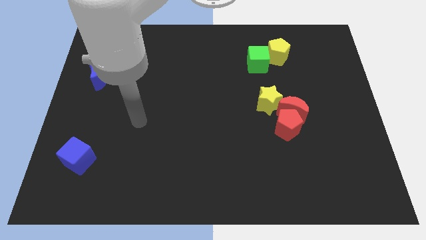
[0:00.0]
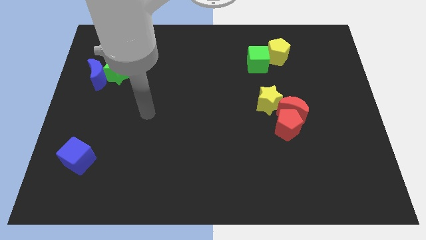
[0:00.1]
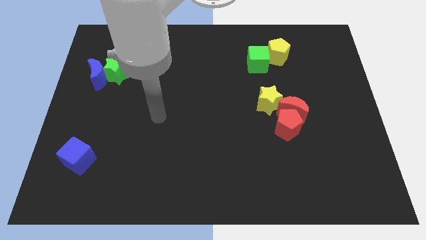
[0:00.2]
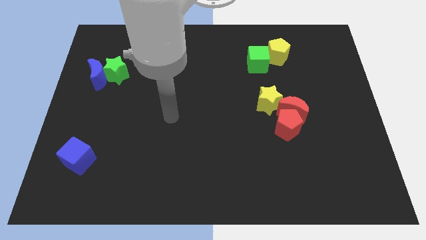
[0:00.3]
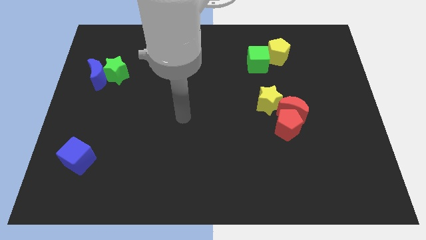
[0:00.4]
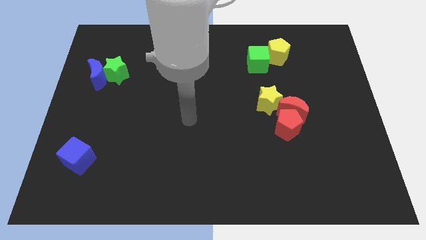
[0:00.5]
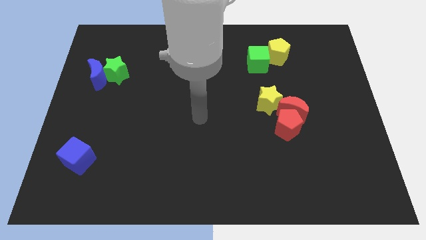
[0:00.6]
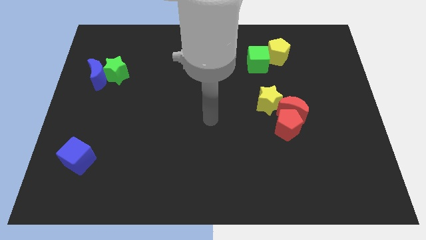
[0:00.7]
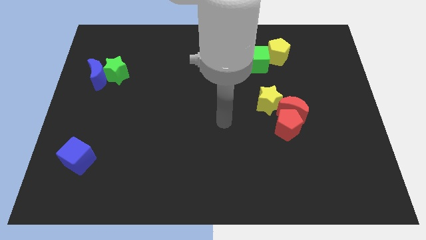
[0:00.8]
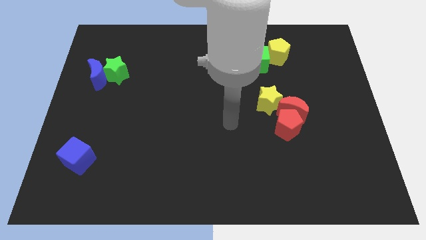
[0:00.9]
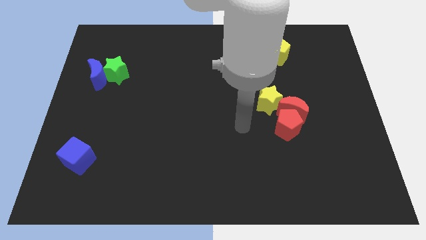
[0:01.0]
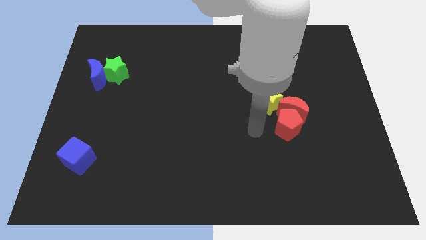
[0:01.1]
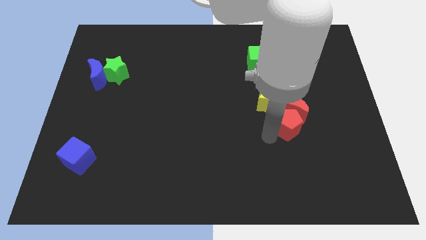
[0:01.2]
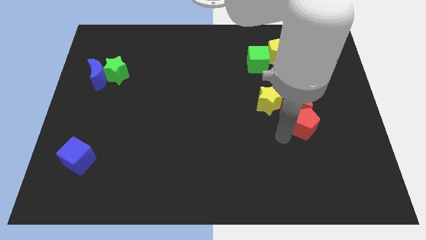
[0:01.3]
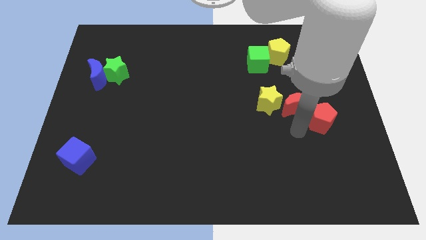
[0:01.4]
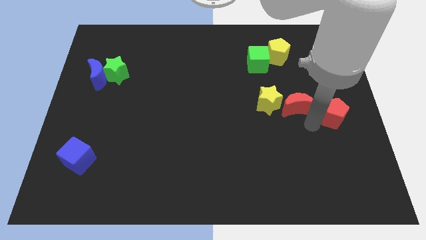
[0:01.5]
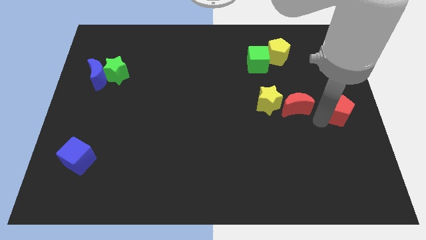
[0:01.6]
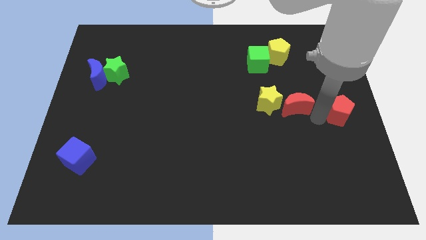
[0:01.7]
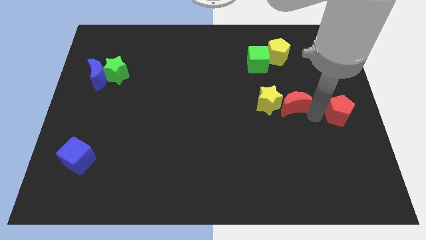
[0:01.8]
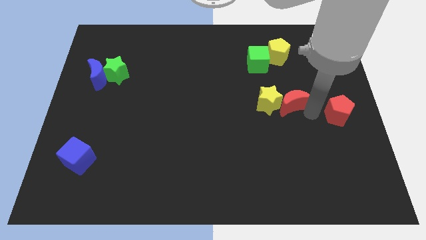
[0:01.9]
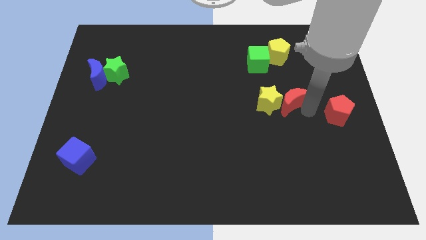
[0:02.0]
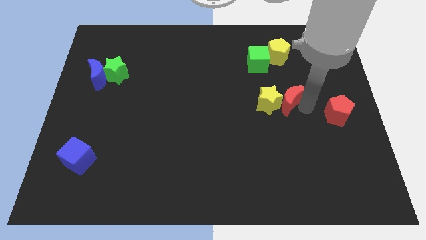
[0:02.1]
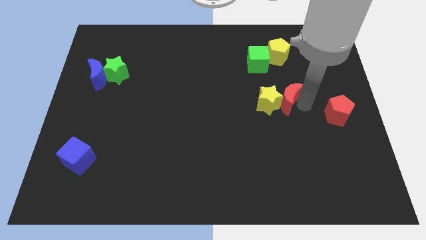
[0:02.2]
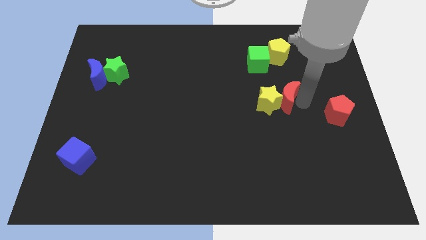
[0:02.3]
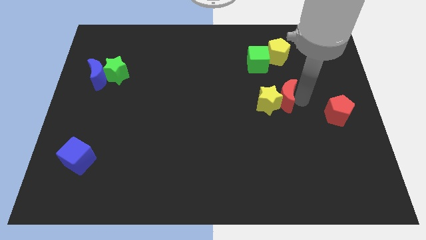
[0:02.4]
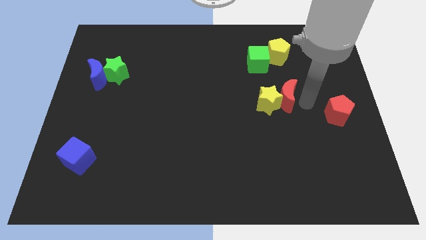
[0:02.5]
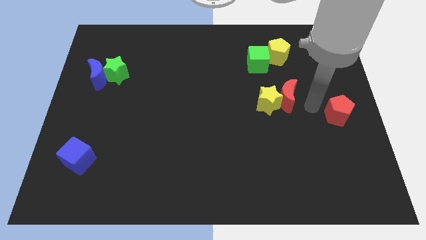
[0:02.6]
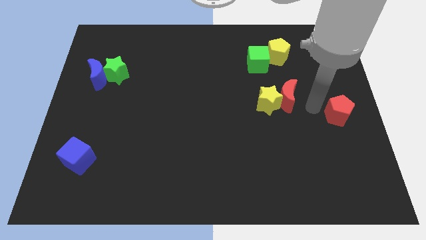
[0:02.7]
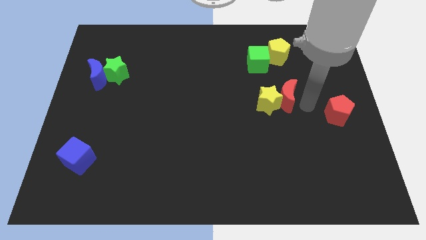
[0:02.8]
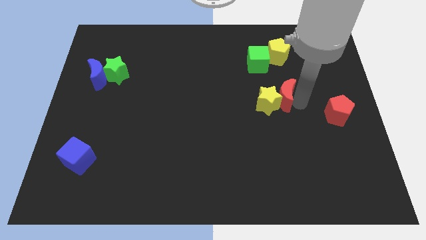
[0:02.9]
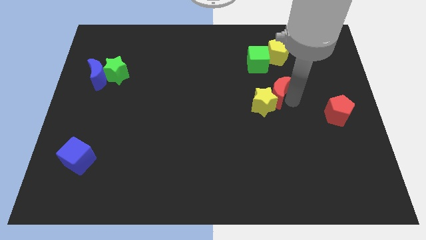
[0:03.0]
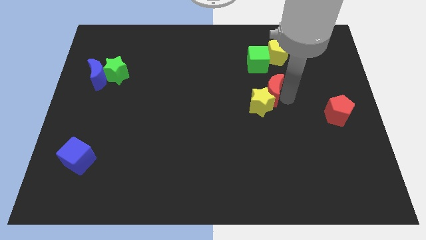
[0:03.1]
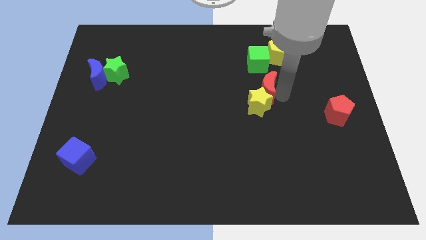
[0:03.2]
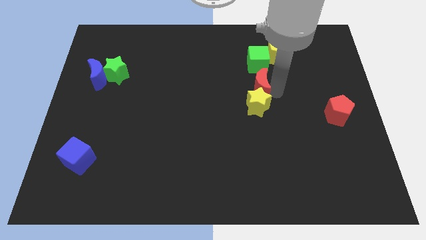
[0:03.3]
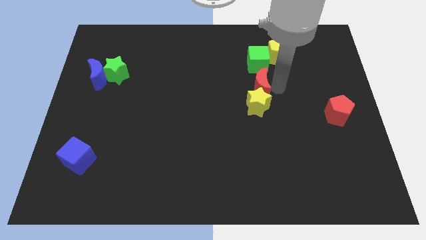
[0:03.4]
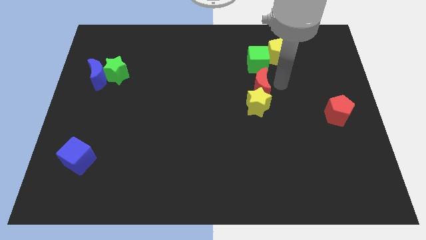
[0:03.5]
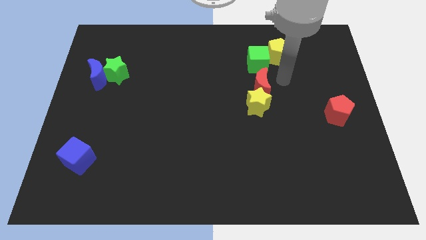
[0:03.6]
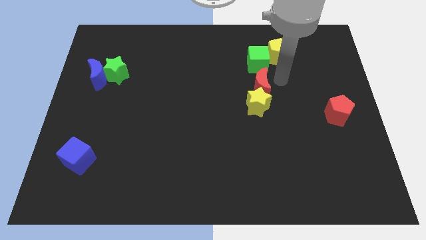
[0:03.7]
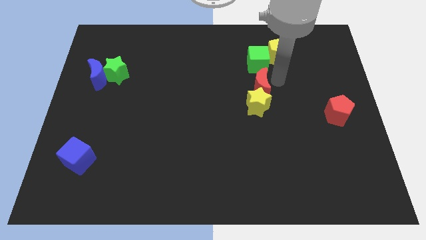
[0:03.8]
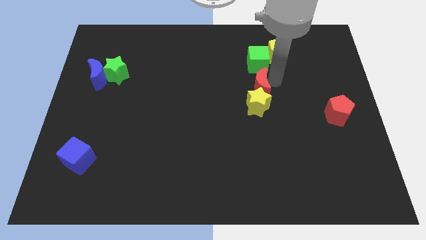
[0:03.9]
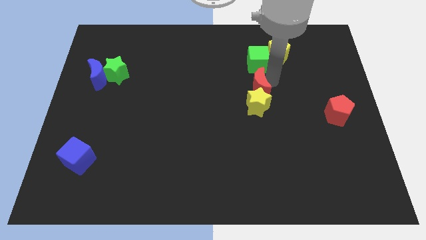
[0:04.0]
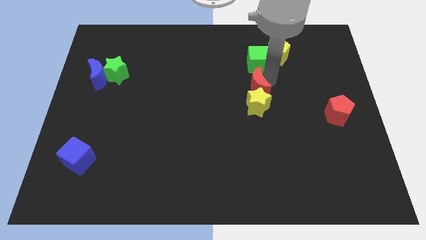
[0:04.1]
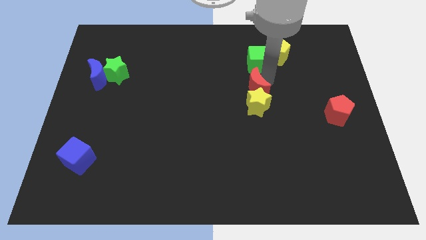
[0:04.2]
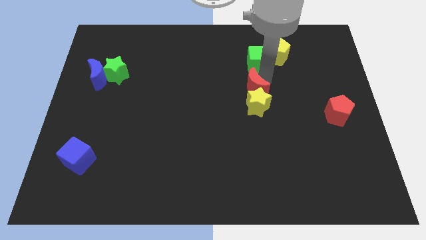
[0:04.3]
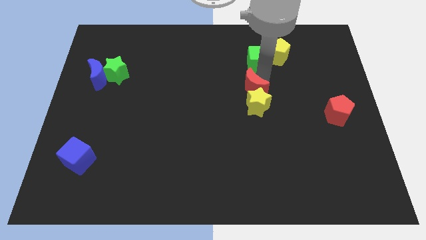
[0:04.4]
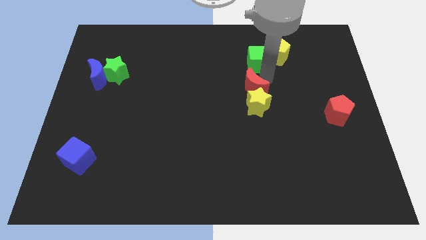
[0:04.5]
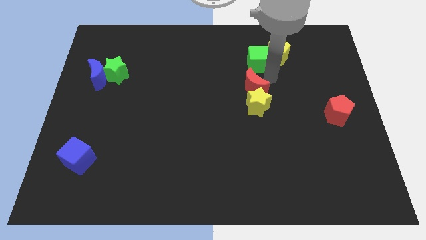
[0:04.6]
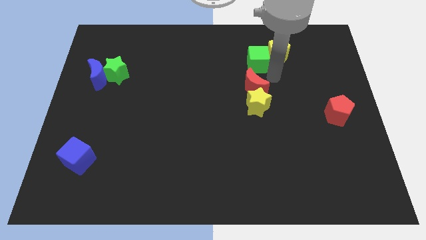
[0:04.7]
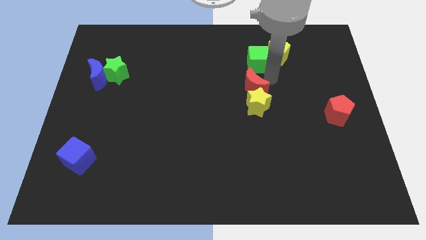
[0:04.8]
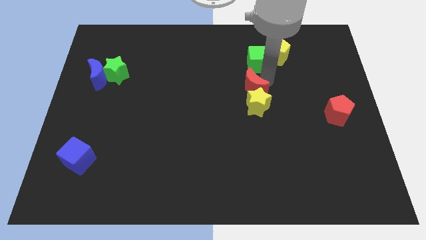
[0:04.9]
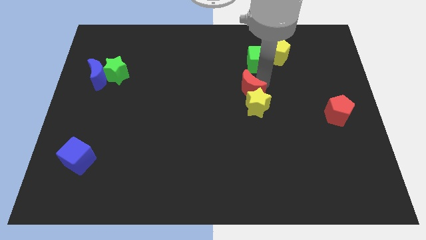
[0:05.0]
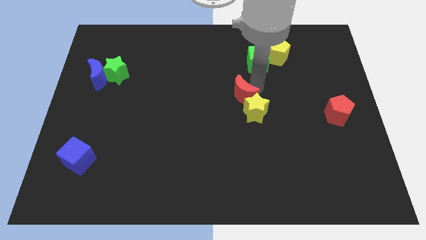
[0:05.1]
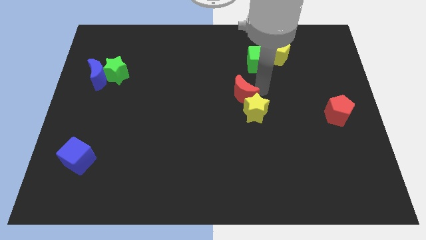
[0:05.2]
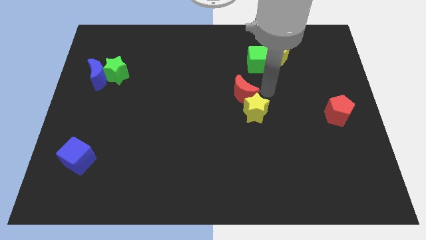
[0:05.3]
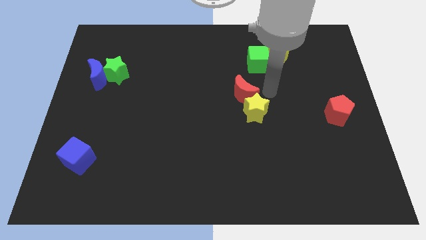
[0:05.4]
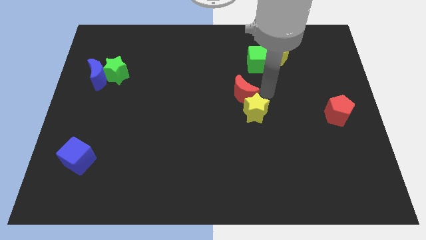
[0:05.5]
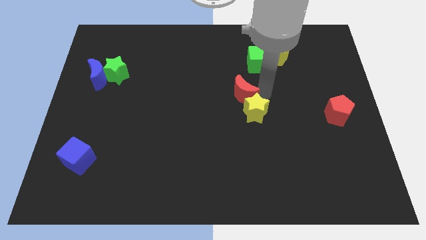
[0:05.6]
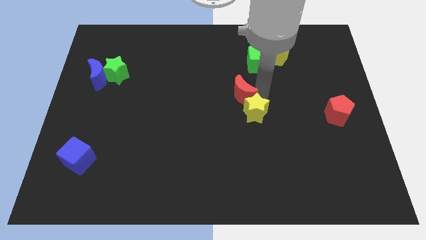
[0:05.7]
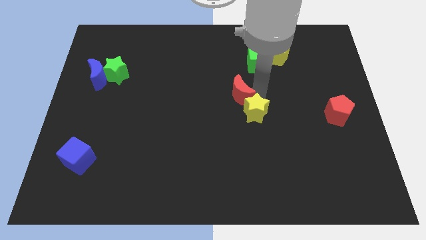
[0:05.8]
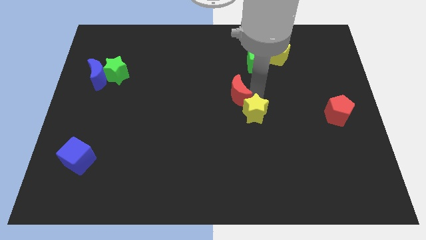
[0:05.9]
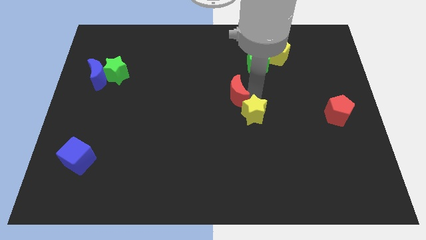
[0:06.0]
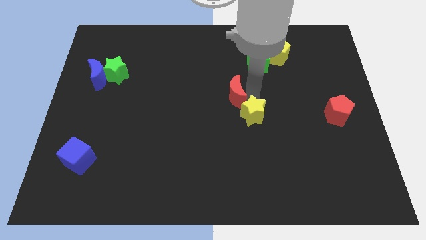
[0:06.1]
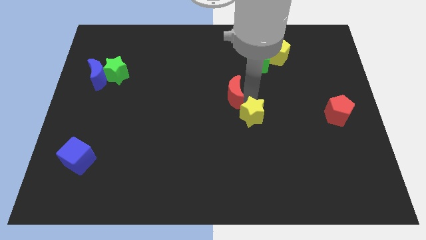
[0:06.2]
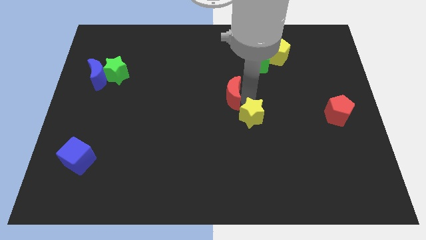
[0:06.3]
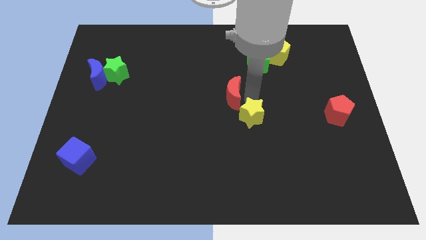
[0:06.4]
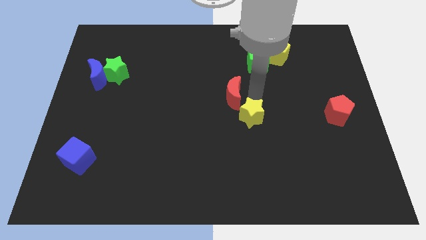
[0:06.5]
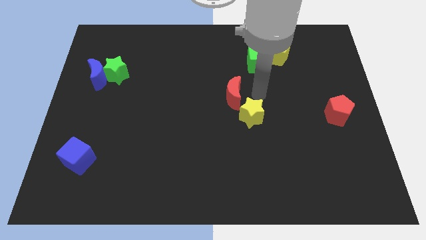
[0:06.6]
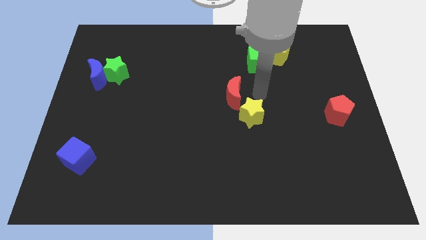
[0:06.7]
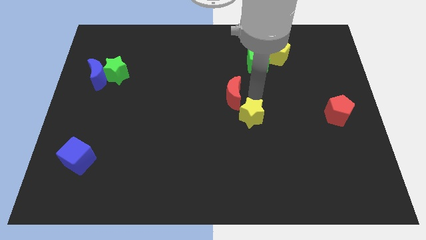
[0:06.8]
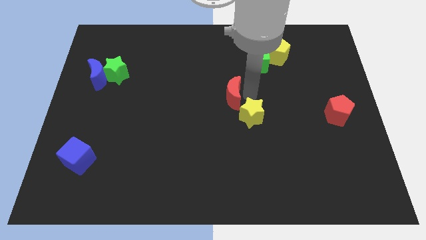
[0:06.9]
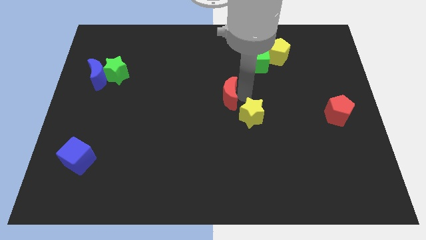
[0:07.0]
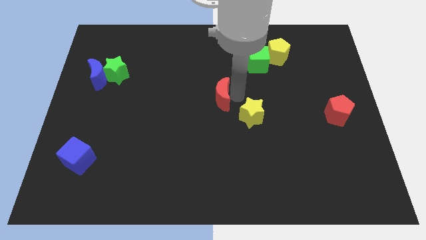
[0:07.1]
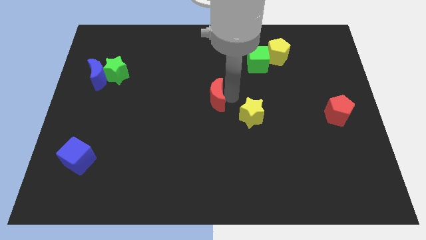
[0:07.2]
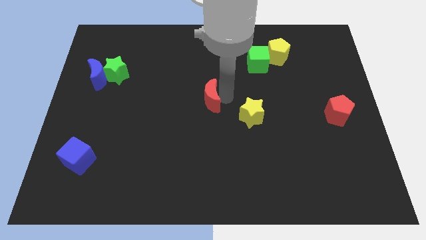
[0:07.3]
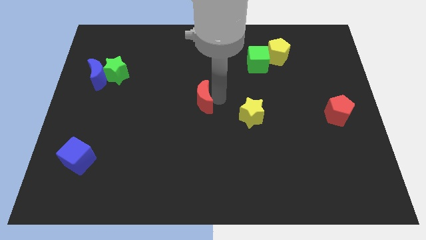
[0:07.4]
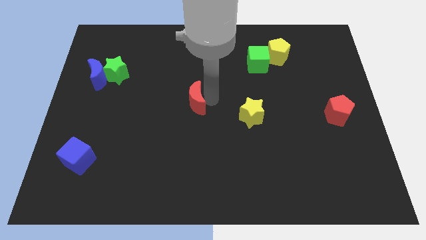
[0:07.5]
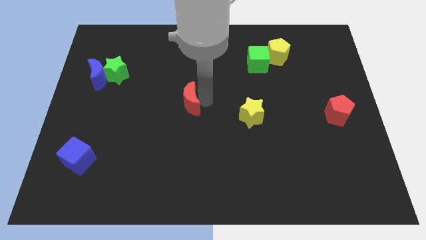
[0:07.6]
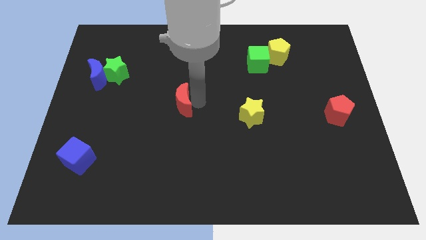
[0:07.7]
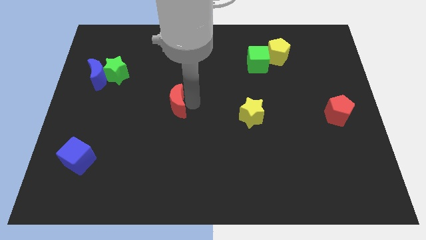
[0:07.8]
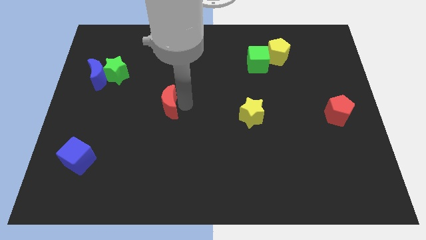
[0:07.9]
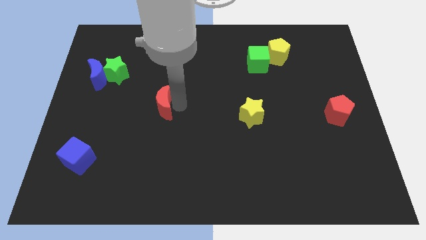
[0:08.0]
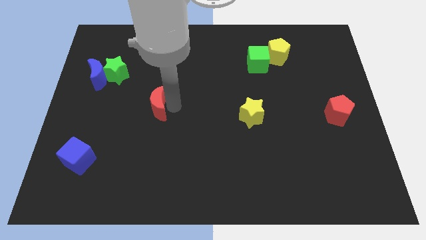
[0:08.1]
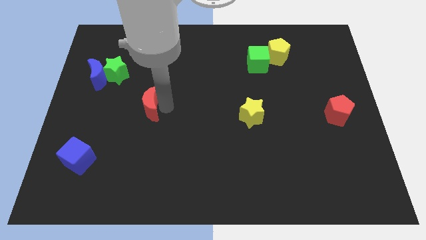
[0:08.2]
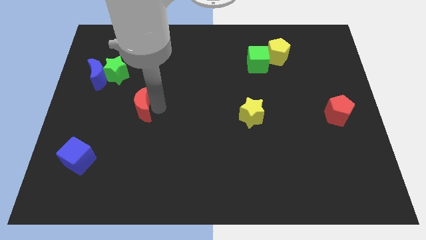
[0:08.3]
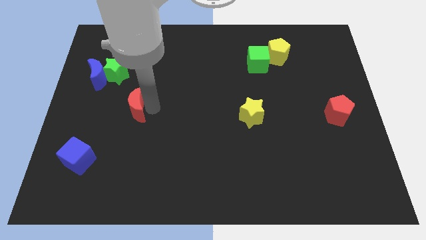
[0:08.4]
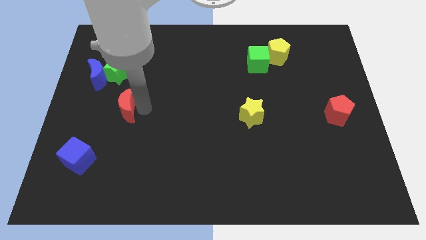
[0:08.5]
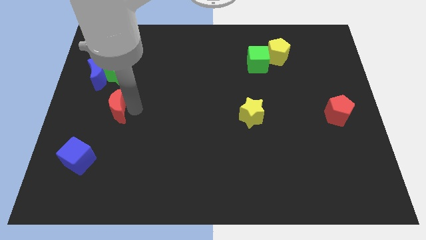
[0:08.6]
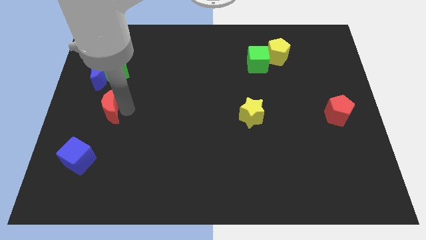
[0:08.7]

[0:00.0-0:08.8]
move the red moon to the bottom side of the blue moon
